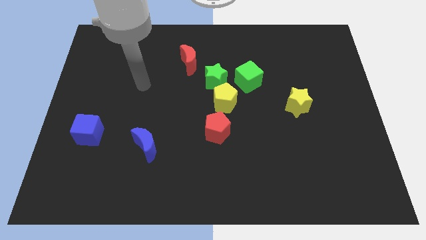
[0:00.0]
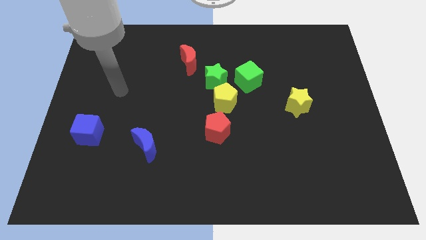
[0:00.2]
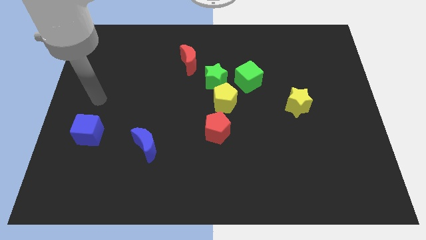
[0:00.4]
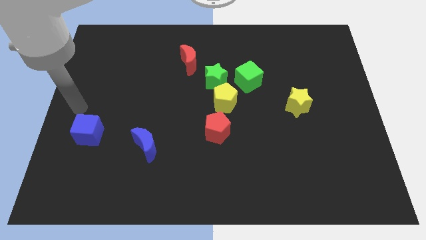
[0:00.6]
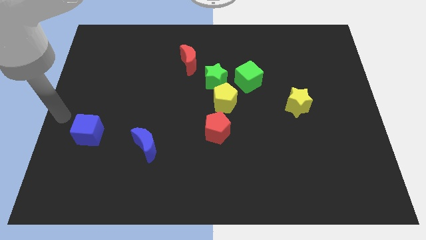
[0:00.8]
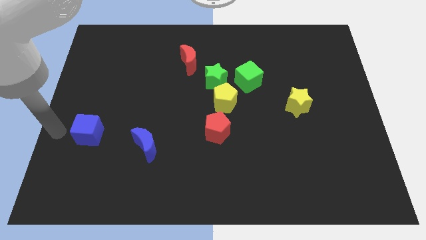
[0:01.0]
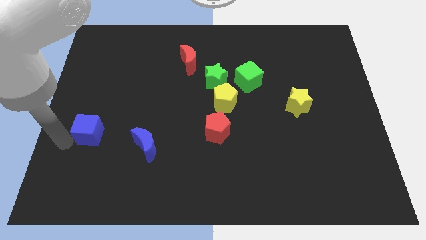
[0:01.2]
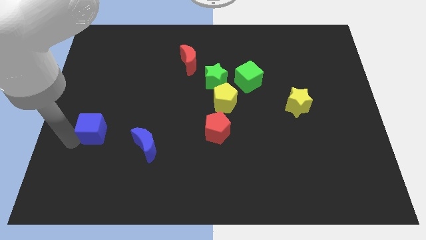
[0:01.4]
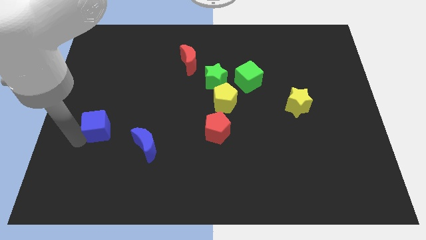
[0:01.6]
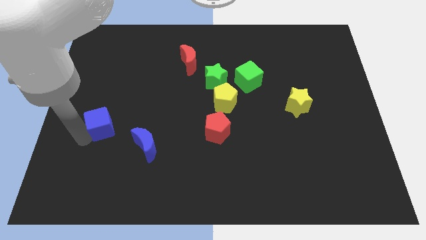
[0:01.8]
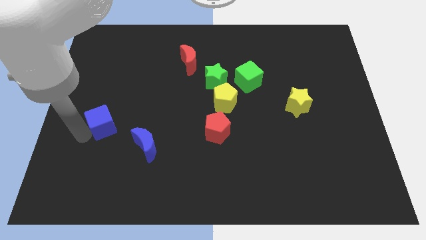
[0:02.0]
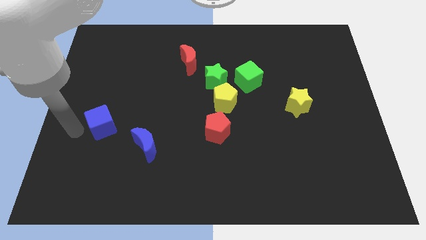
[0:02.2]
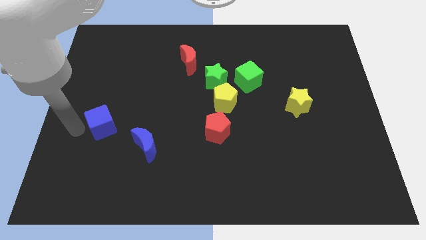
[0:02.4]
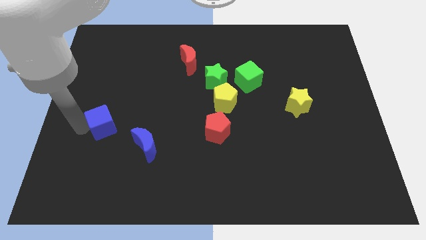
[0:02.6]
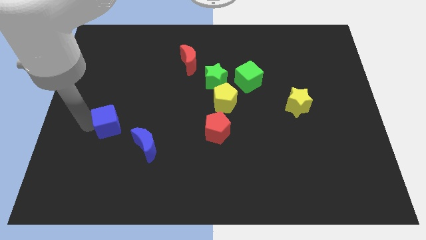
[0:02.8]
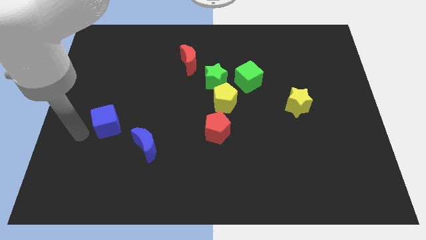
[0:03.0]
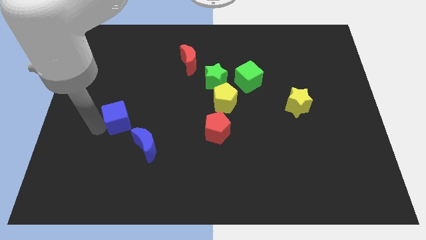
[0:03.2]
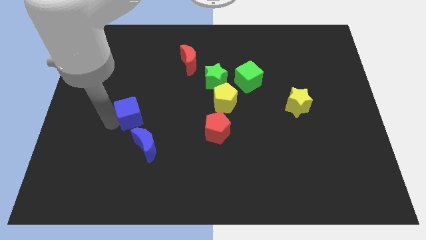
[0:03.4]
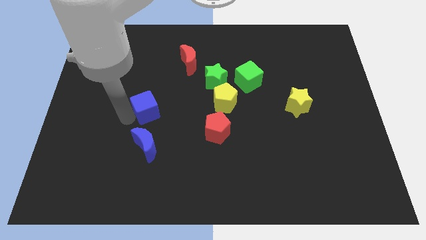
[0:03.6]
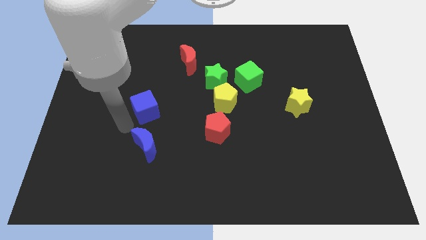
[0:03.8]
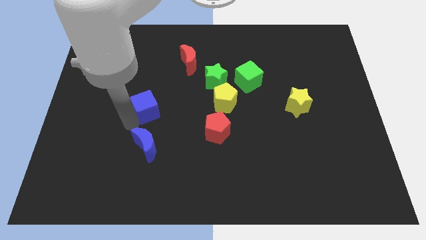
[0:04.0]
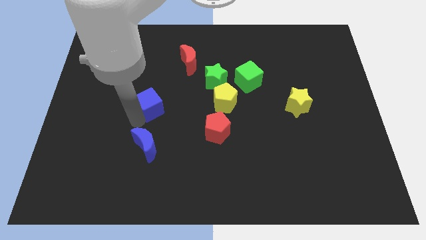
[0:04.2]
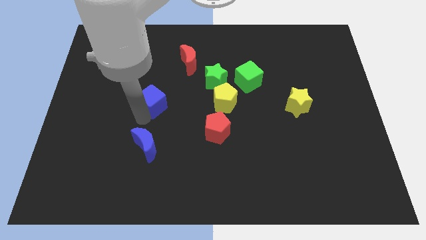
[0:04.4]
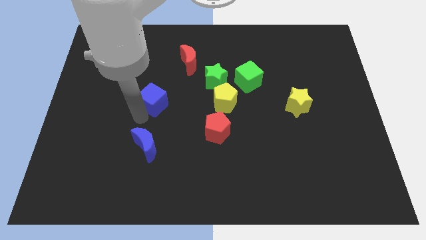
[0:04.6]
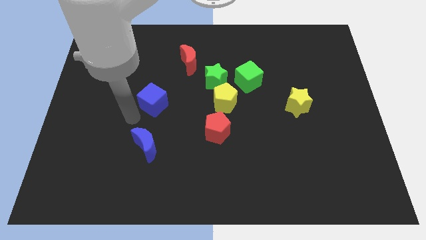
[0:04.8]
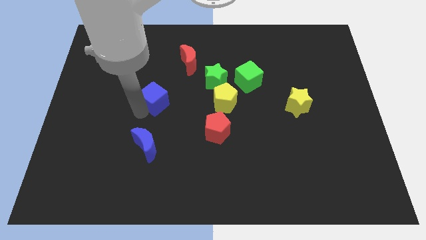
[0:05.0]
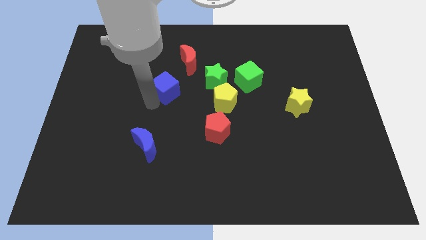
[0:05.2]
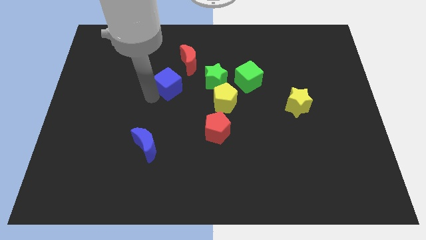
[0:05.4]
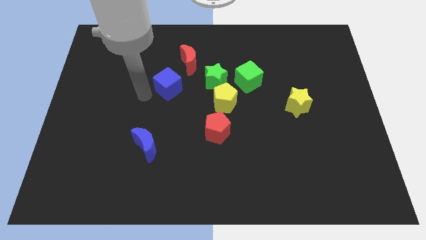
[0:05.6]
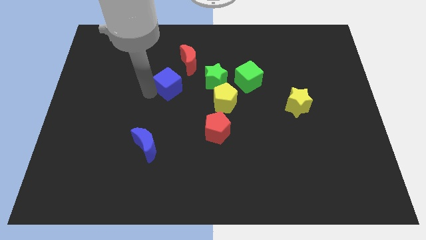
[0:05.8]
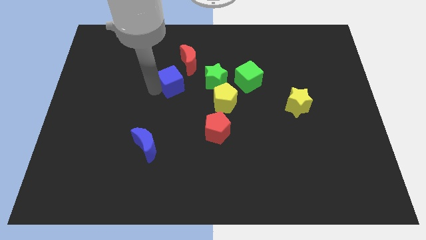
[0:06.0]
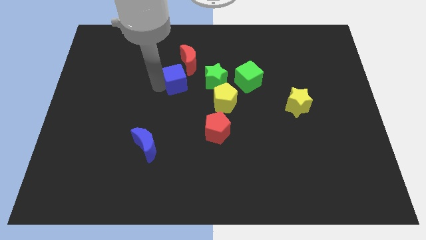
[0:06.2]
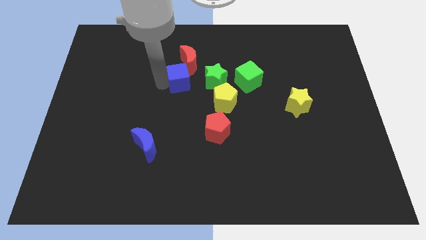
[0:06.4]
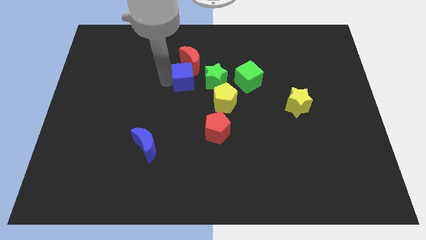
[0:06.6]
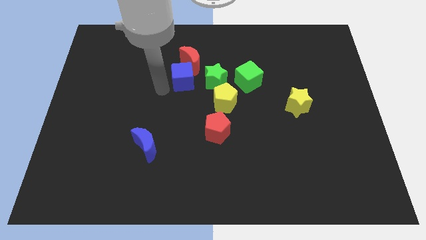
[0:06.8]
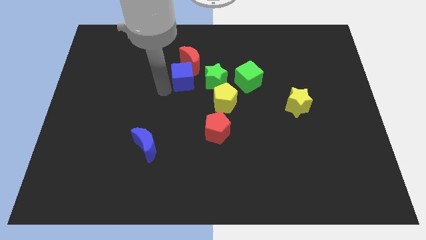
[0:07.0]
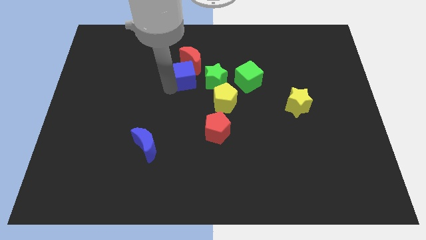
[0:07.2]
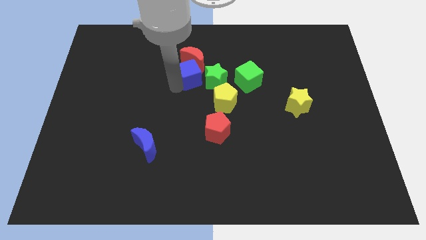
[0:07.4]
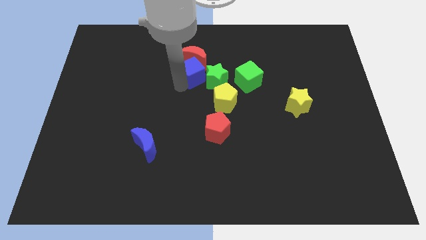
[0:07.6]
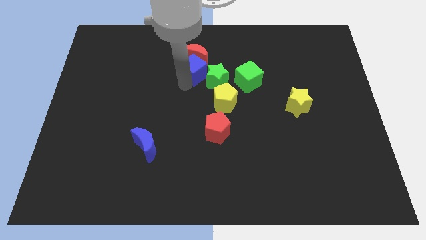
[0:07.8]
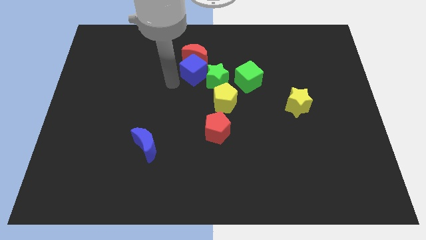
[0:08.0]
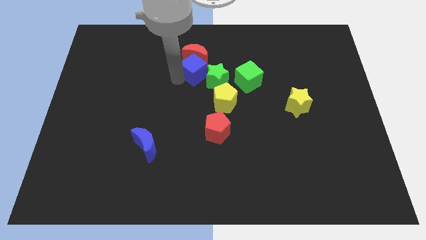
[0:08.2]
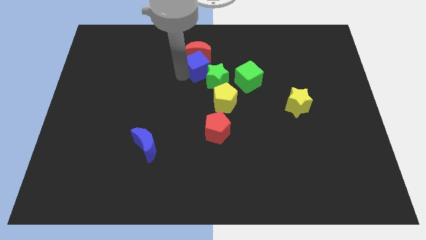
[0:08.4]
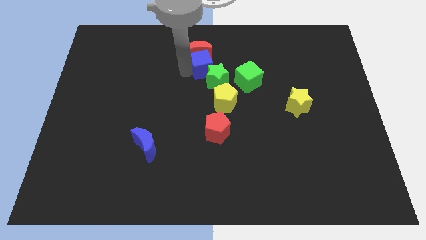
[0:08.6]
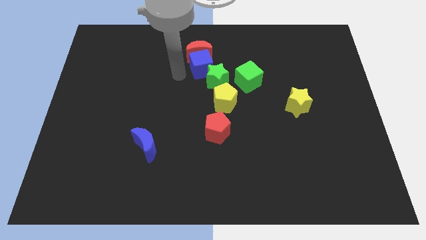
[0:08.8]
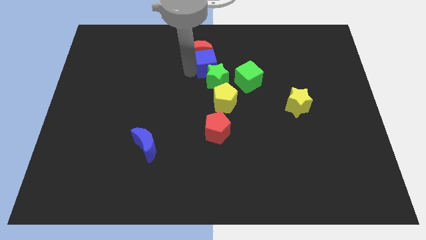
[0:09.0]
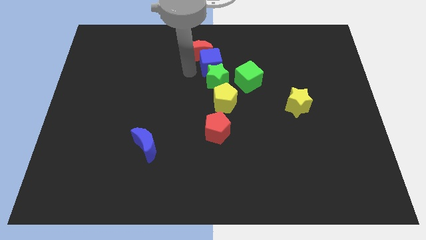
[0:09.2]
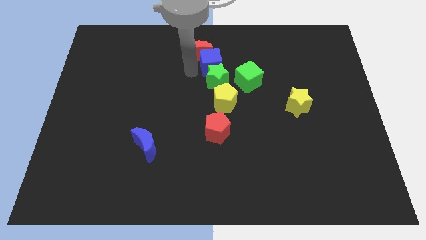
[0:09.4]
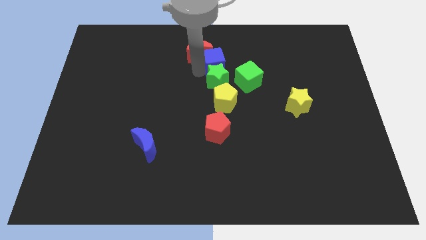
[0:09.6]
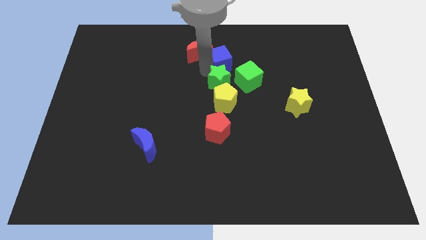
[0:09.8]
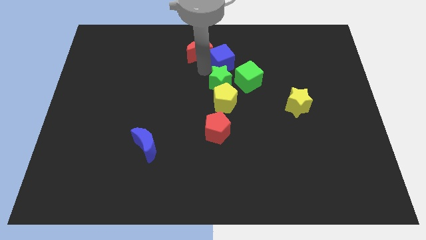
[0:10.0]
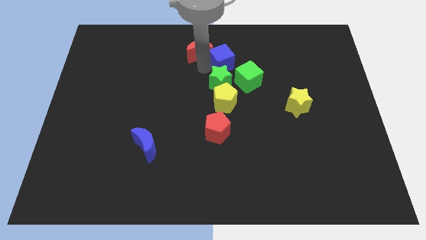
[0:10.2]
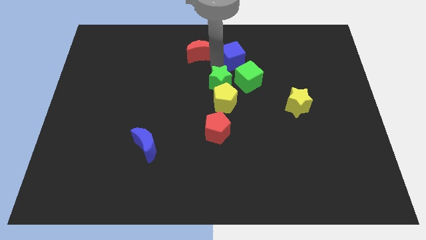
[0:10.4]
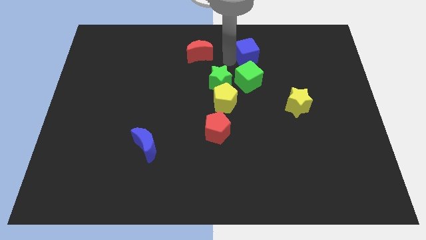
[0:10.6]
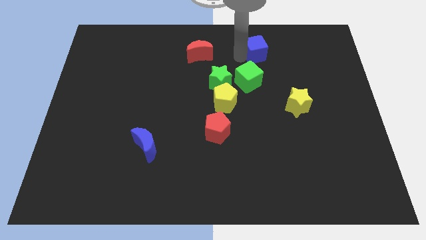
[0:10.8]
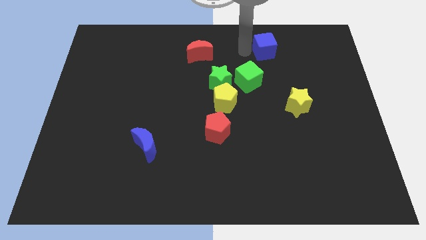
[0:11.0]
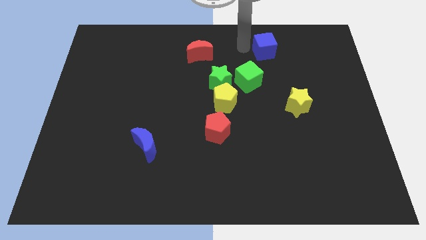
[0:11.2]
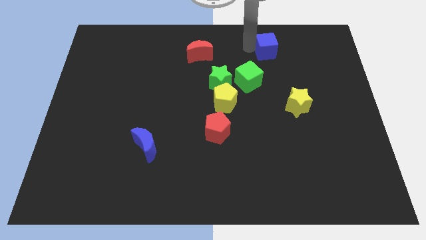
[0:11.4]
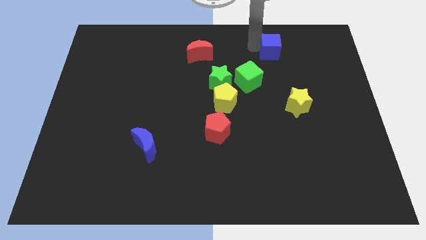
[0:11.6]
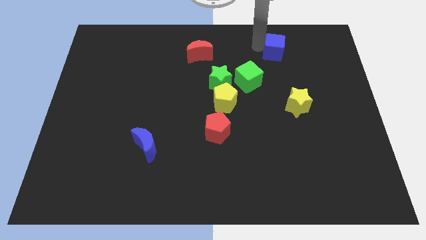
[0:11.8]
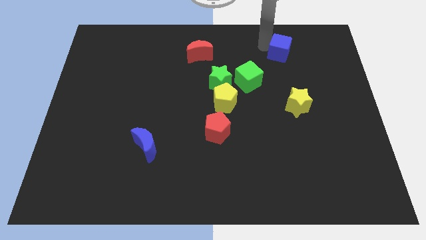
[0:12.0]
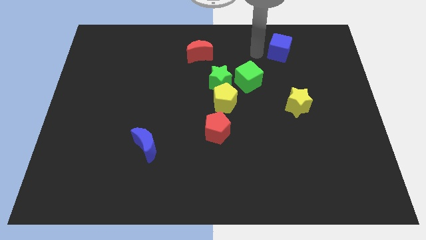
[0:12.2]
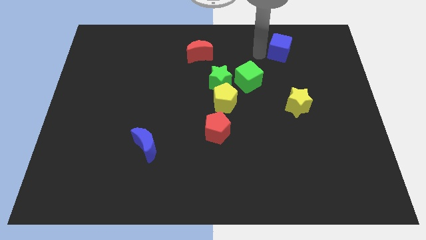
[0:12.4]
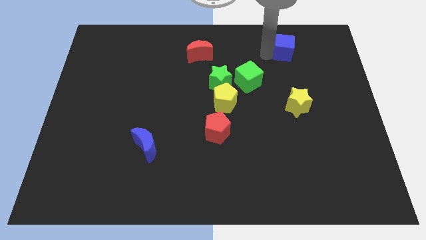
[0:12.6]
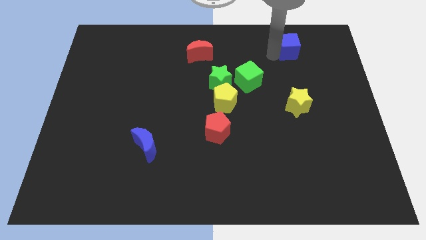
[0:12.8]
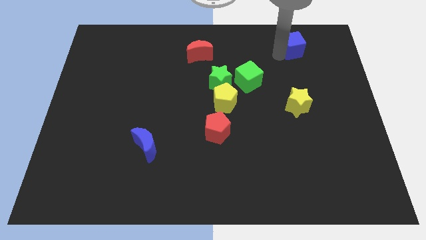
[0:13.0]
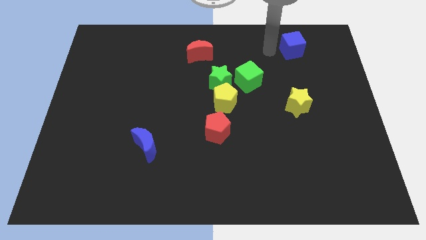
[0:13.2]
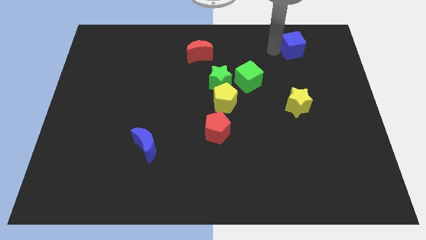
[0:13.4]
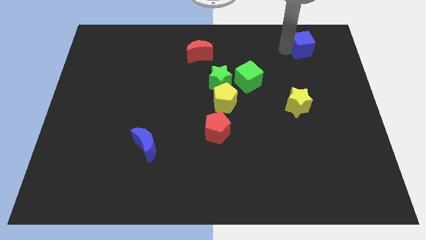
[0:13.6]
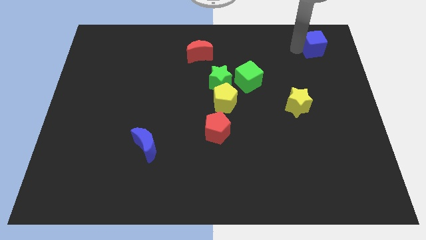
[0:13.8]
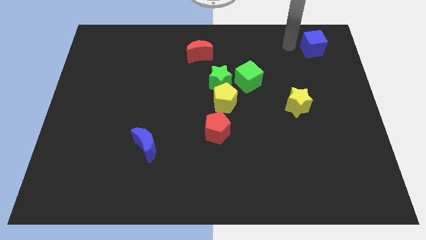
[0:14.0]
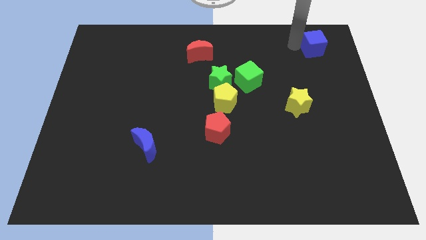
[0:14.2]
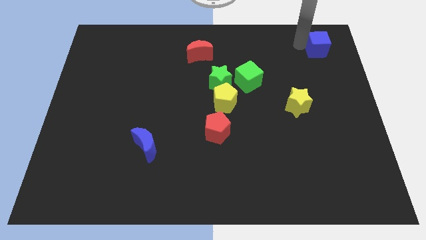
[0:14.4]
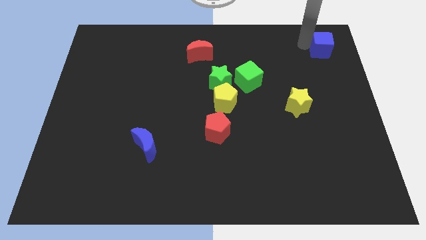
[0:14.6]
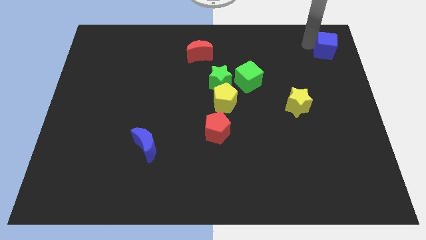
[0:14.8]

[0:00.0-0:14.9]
slide the blue cube to the top right of the board
